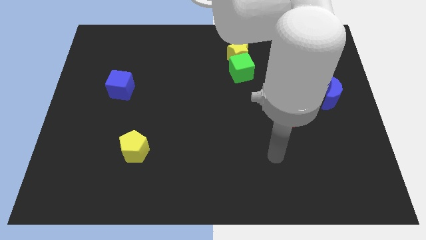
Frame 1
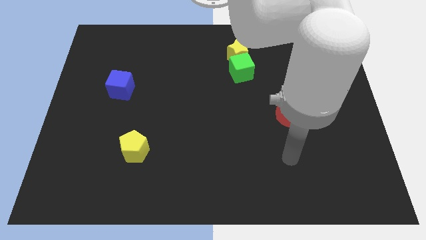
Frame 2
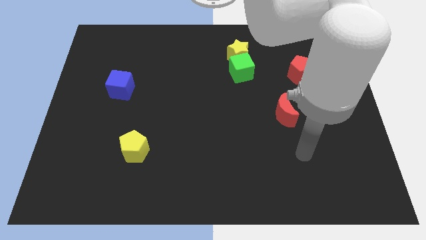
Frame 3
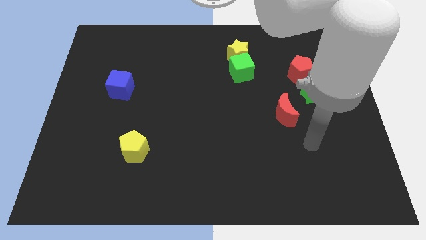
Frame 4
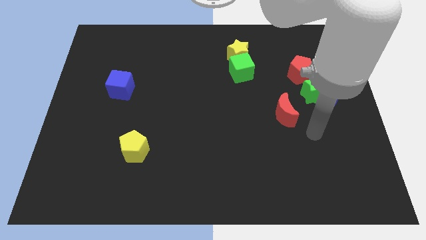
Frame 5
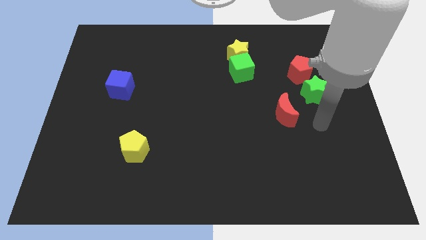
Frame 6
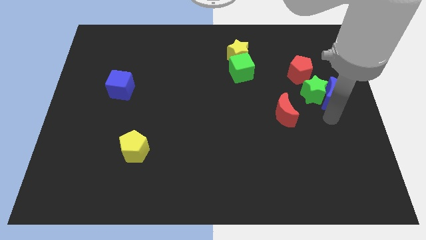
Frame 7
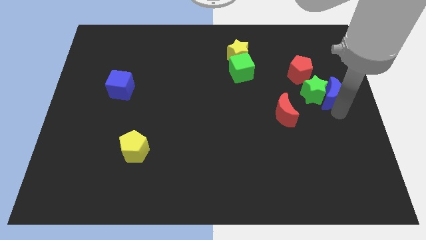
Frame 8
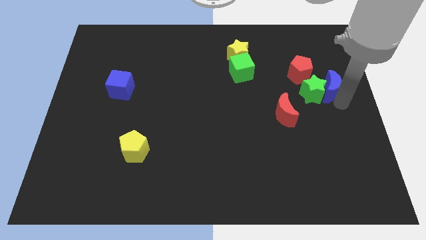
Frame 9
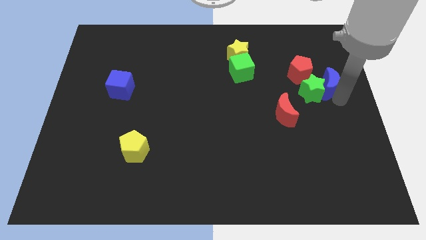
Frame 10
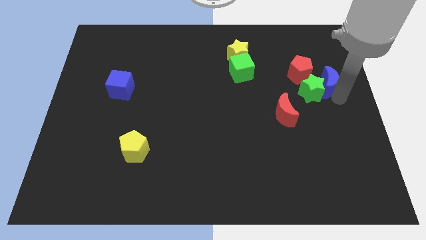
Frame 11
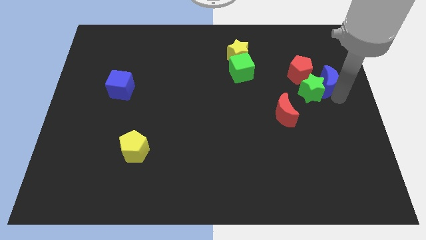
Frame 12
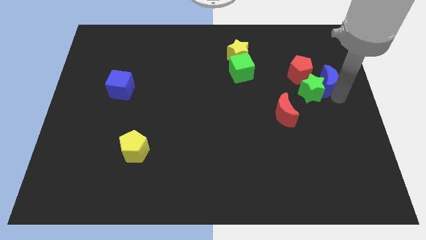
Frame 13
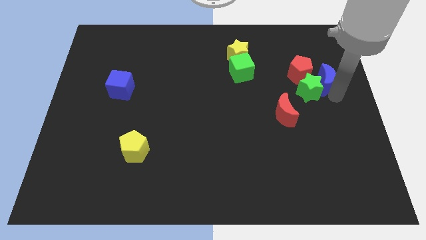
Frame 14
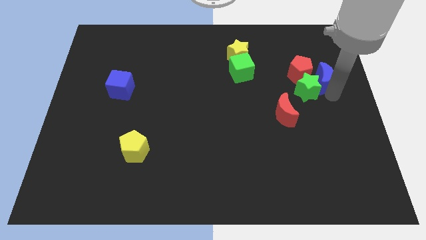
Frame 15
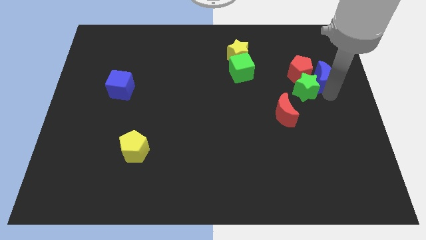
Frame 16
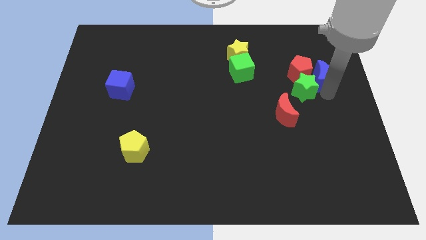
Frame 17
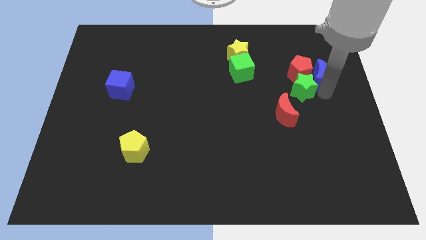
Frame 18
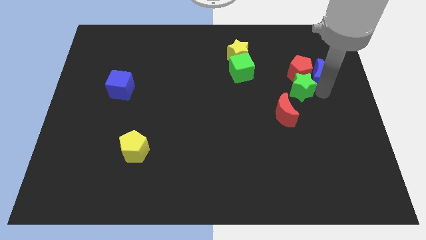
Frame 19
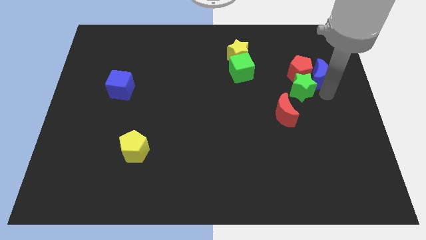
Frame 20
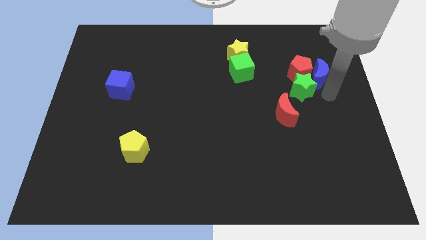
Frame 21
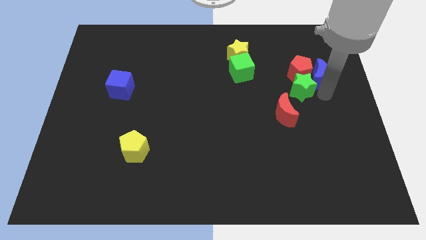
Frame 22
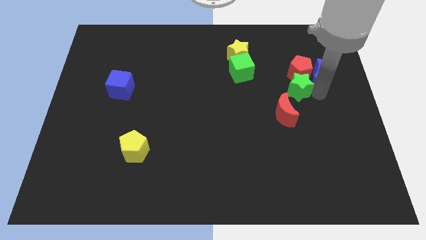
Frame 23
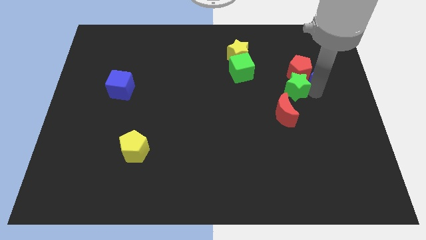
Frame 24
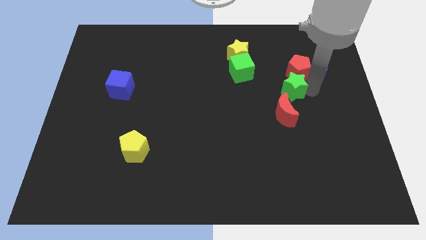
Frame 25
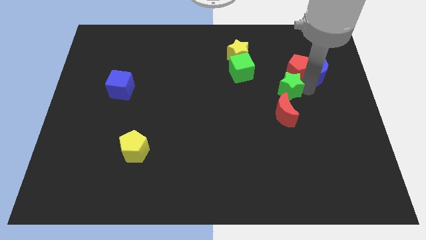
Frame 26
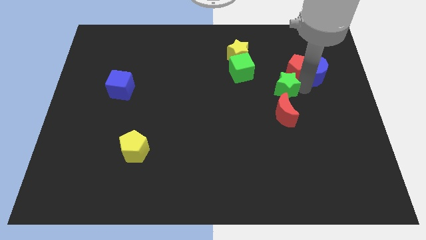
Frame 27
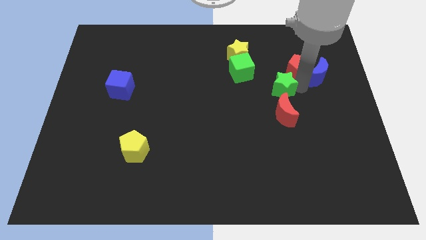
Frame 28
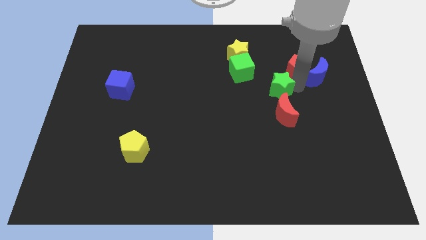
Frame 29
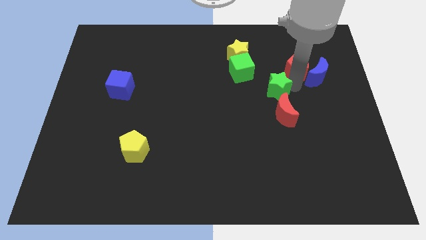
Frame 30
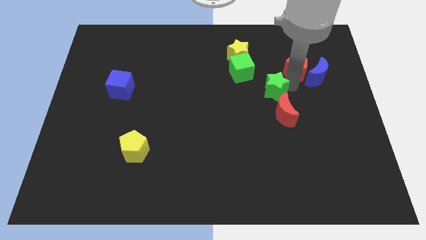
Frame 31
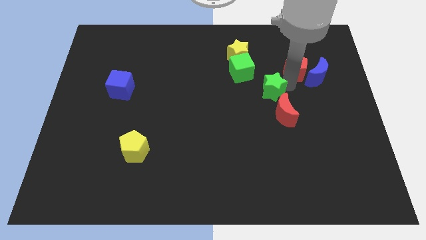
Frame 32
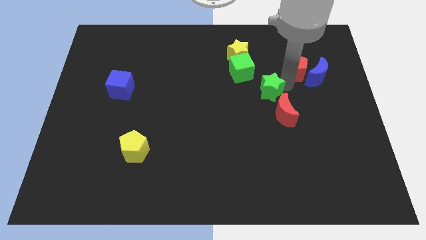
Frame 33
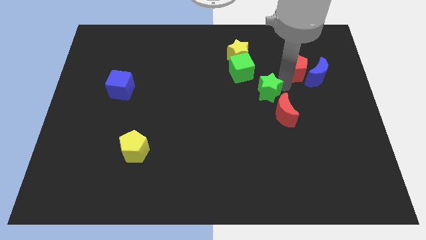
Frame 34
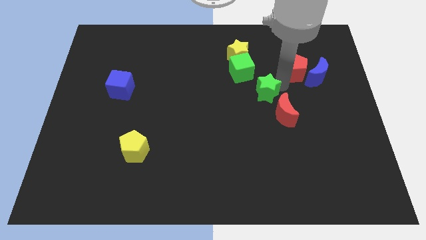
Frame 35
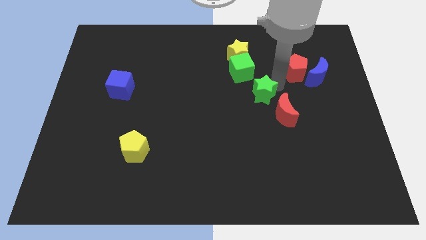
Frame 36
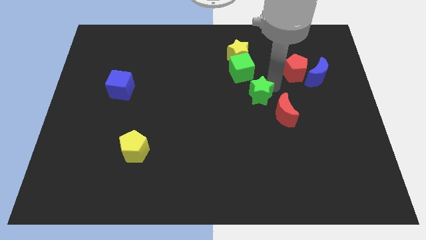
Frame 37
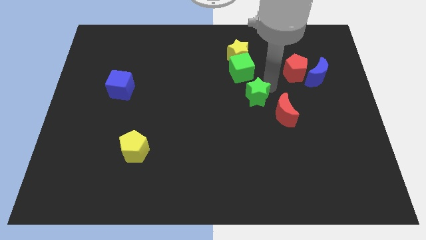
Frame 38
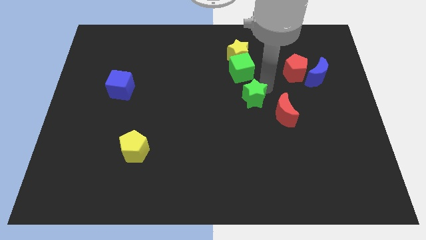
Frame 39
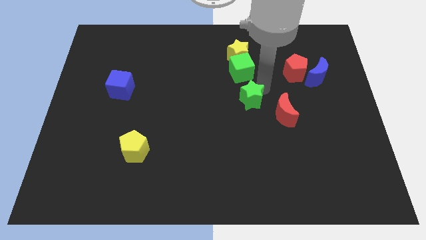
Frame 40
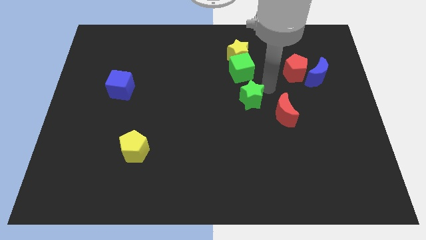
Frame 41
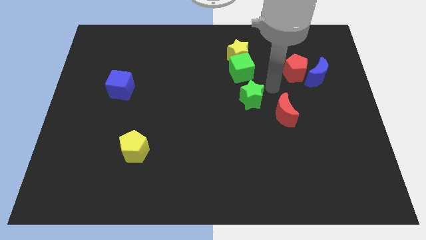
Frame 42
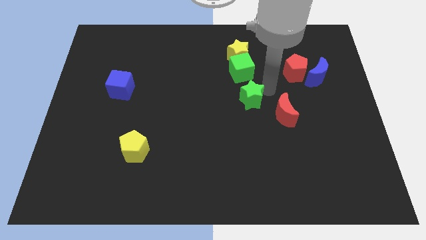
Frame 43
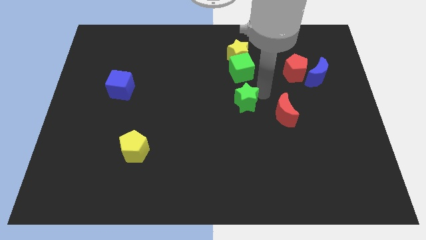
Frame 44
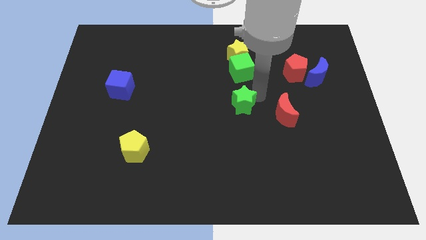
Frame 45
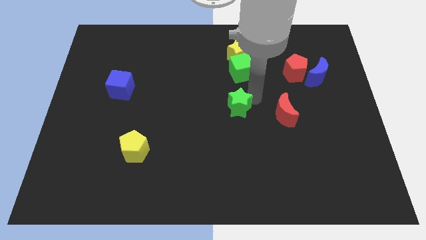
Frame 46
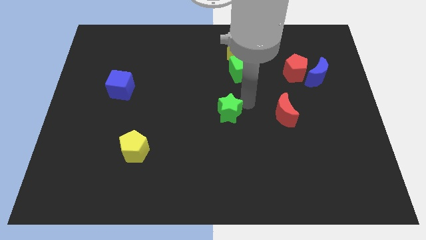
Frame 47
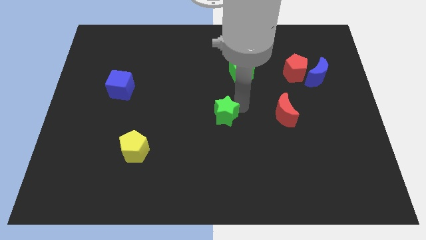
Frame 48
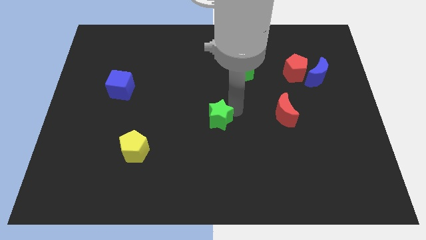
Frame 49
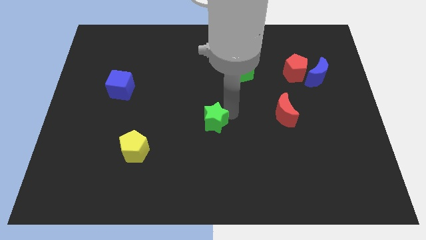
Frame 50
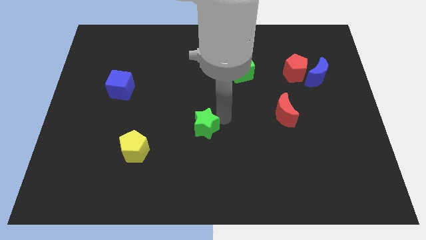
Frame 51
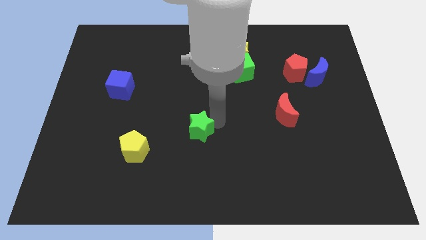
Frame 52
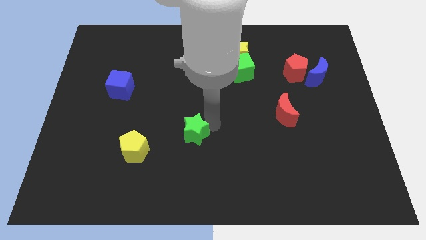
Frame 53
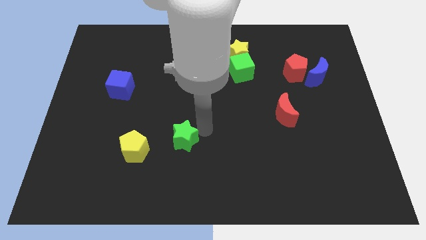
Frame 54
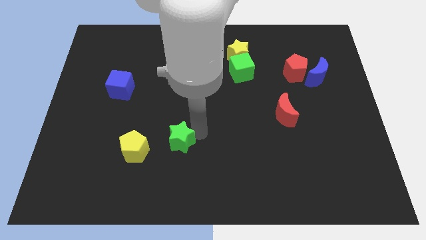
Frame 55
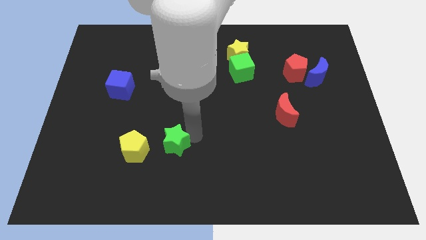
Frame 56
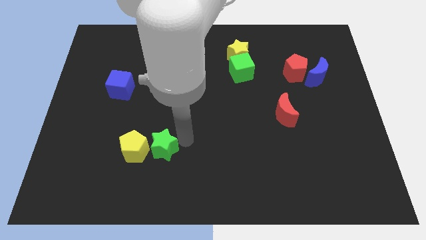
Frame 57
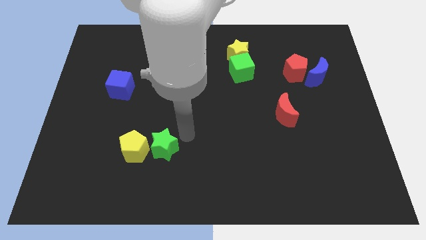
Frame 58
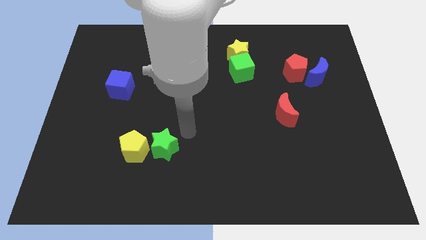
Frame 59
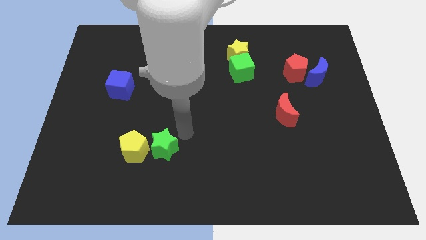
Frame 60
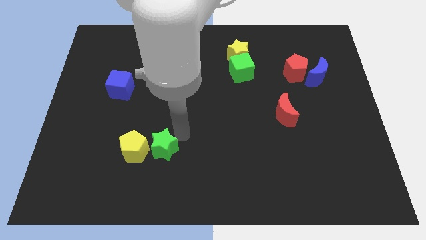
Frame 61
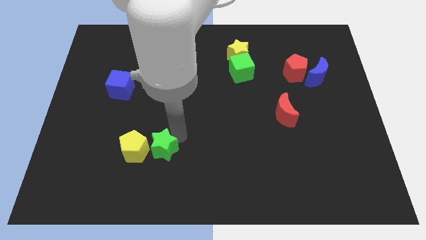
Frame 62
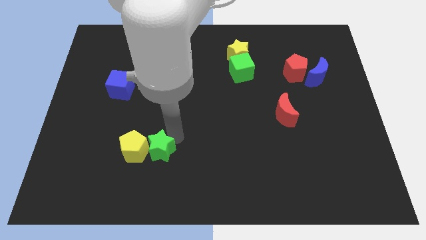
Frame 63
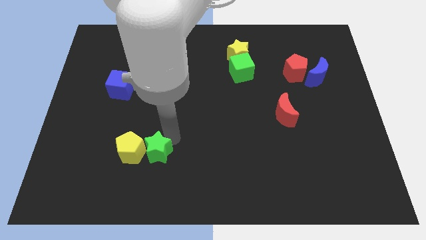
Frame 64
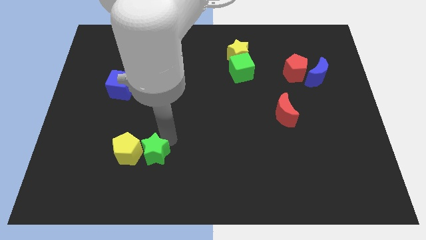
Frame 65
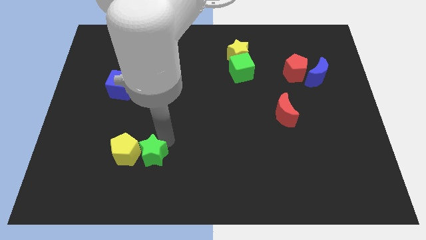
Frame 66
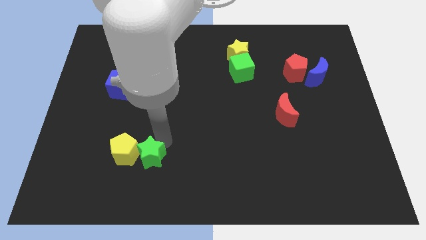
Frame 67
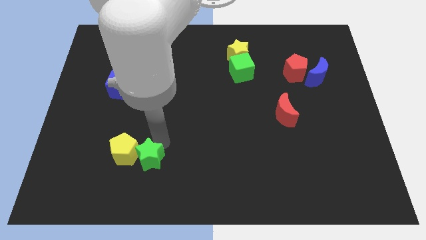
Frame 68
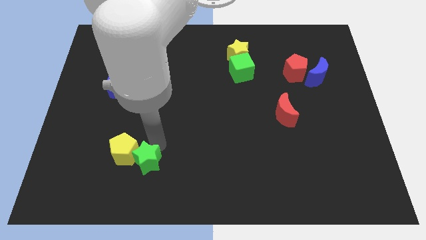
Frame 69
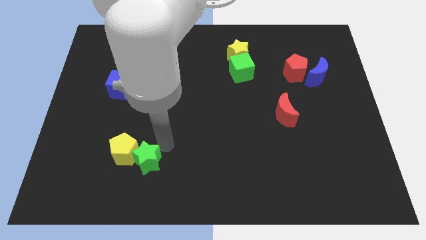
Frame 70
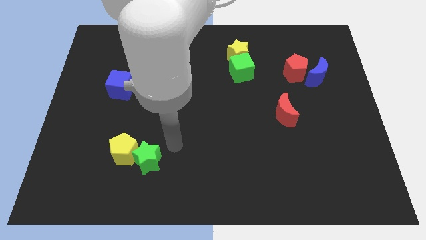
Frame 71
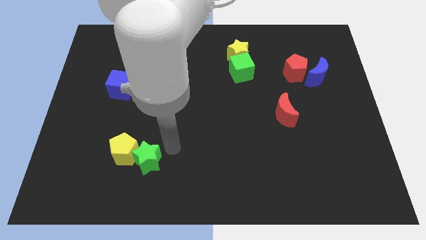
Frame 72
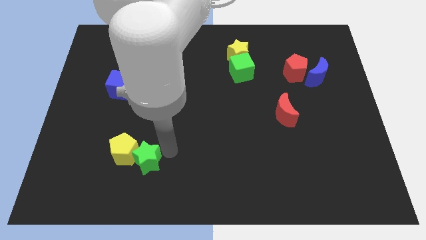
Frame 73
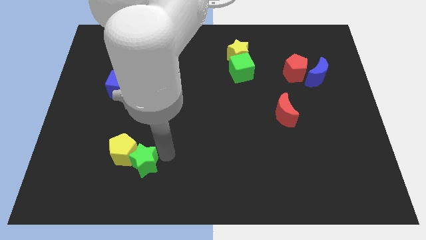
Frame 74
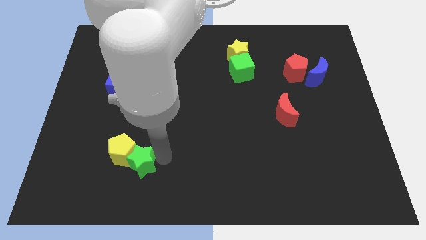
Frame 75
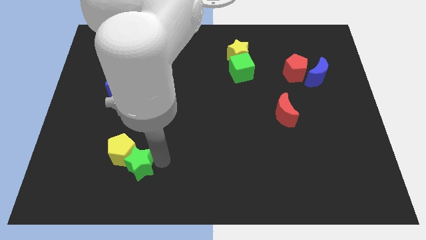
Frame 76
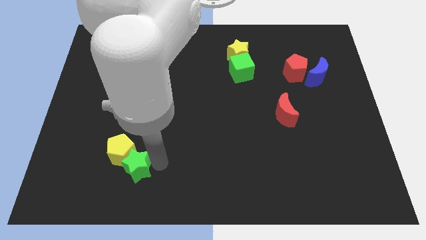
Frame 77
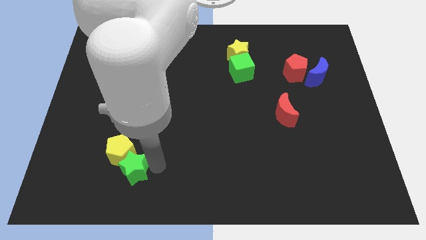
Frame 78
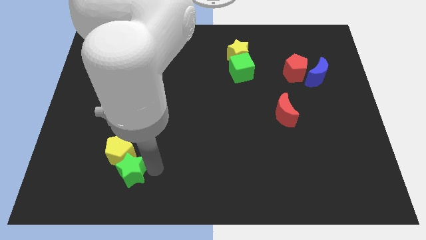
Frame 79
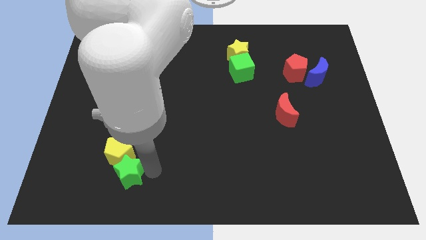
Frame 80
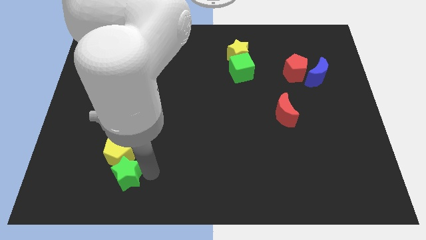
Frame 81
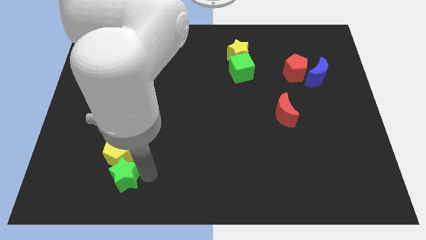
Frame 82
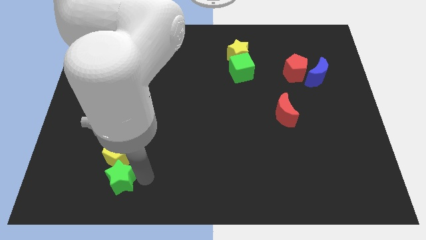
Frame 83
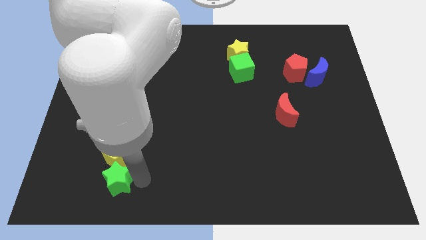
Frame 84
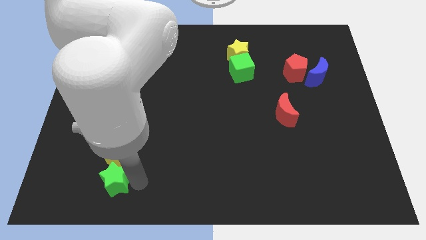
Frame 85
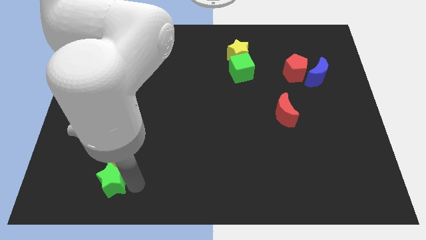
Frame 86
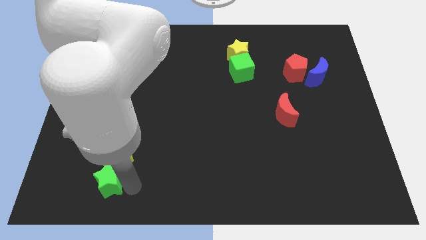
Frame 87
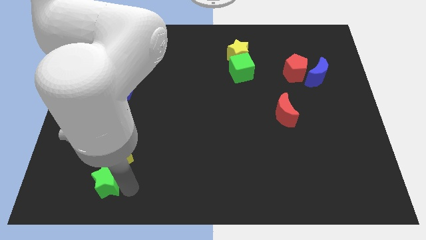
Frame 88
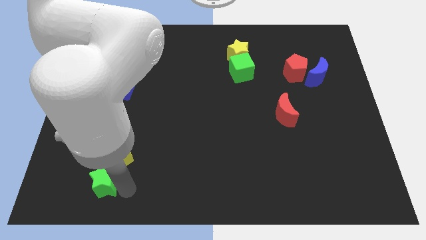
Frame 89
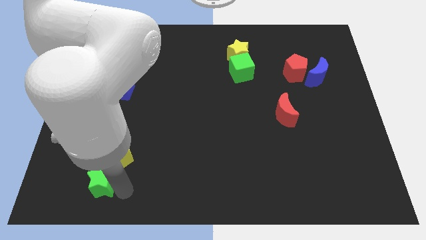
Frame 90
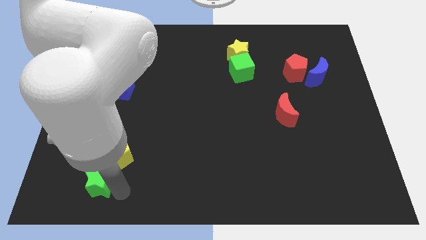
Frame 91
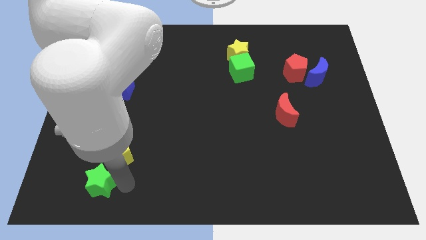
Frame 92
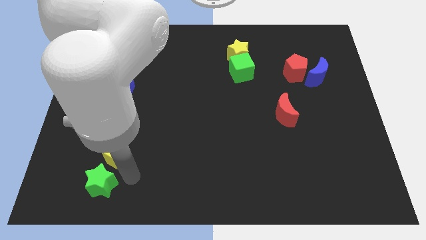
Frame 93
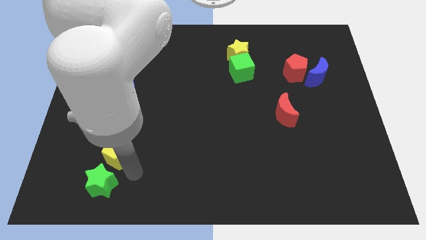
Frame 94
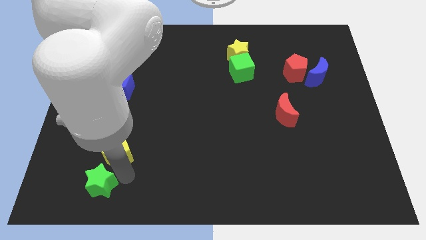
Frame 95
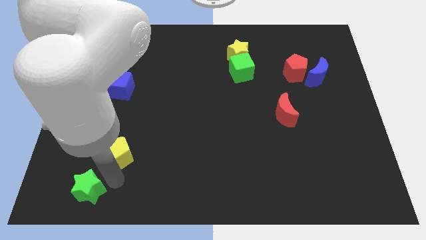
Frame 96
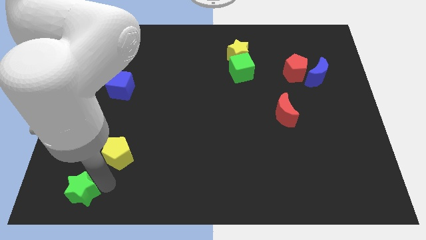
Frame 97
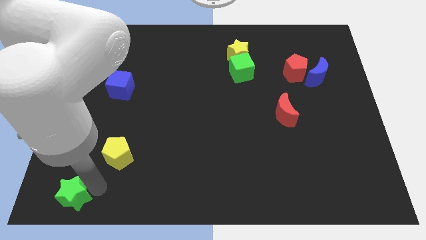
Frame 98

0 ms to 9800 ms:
slide the green star to the bottom left
